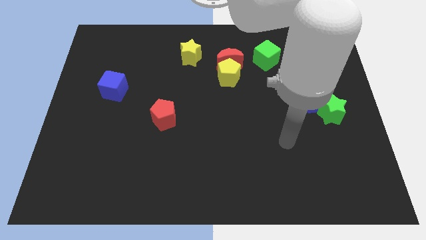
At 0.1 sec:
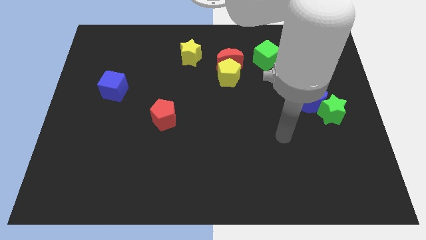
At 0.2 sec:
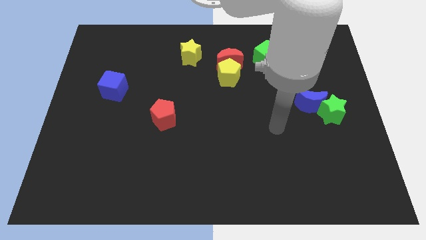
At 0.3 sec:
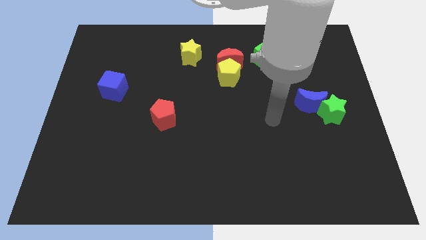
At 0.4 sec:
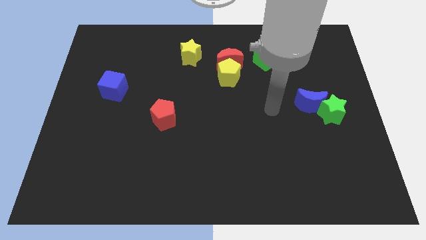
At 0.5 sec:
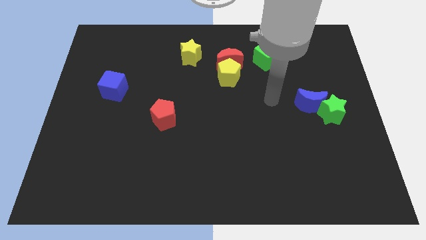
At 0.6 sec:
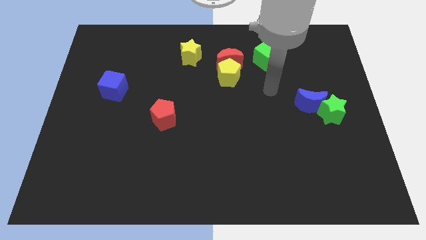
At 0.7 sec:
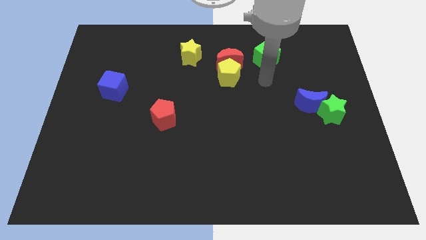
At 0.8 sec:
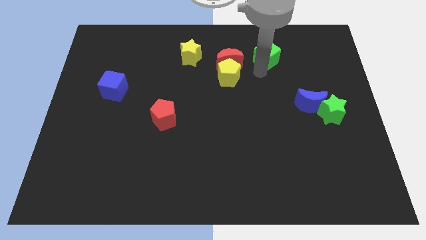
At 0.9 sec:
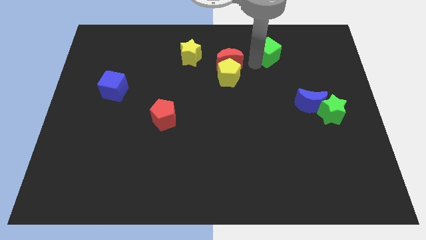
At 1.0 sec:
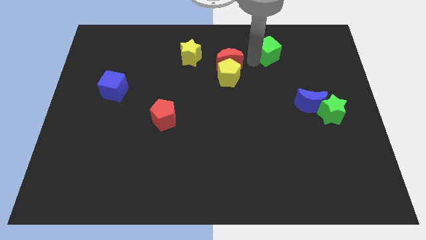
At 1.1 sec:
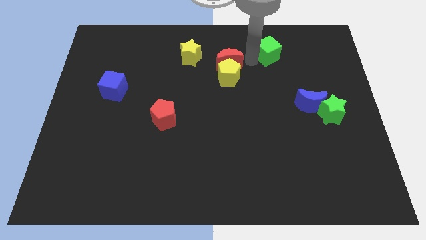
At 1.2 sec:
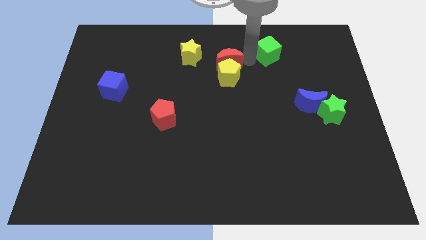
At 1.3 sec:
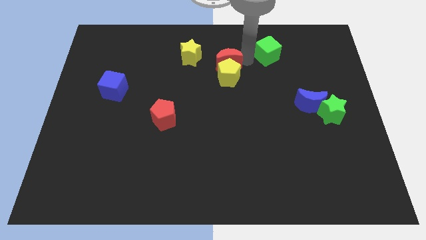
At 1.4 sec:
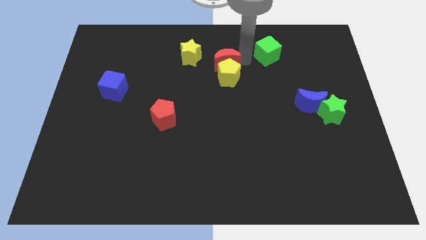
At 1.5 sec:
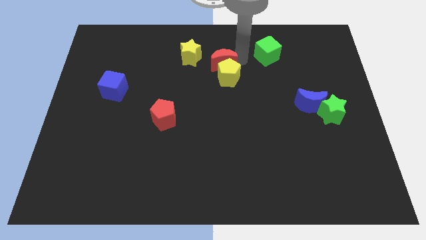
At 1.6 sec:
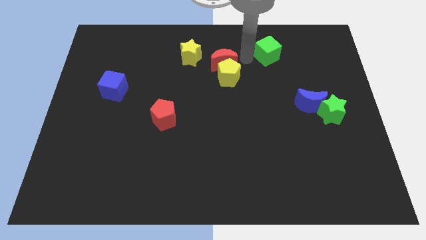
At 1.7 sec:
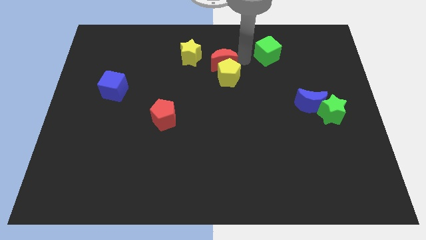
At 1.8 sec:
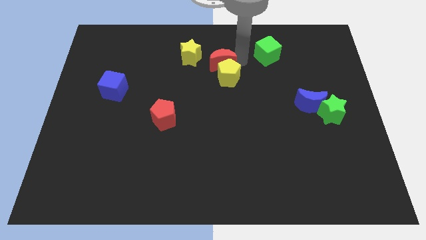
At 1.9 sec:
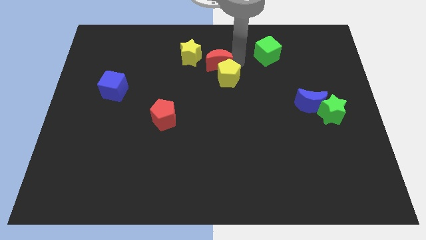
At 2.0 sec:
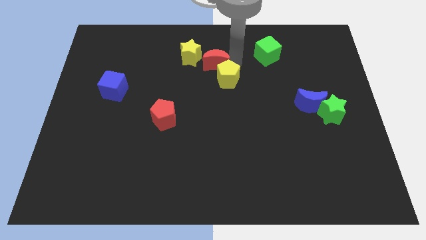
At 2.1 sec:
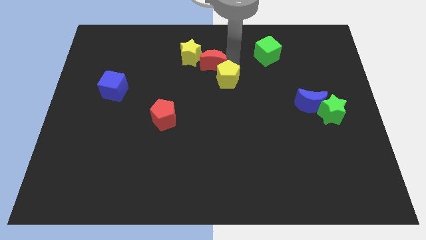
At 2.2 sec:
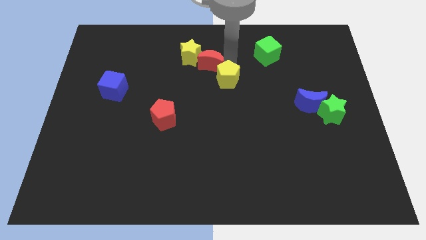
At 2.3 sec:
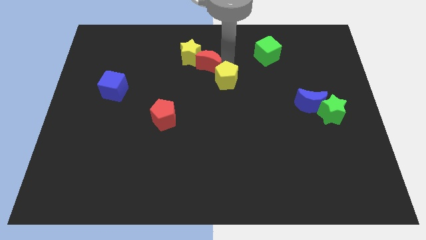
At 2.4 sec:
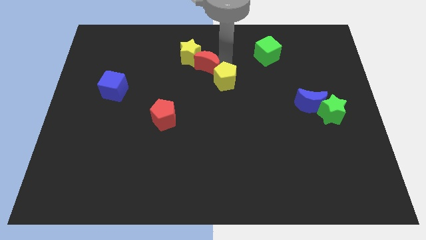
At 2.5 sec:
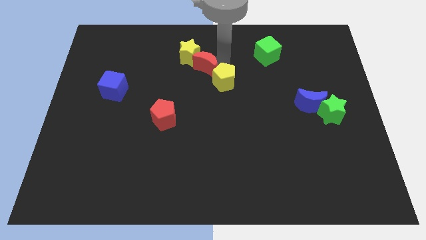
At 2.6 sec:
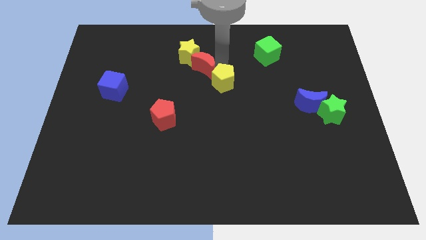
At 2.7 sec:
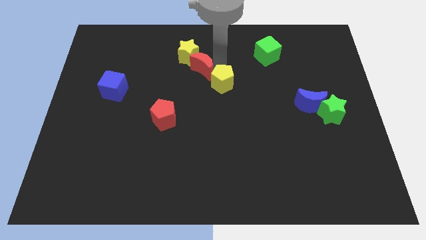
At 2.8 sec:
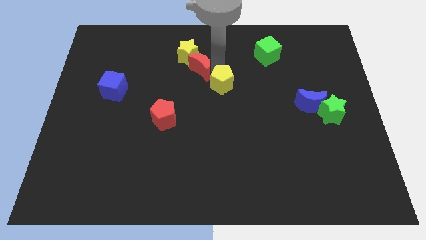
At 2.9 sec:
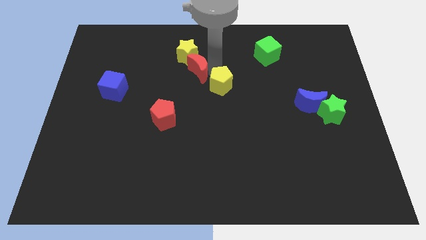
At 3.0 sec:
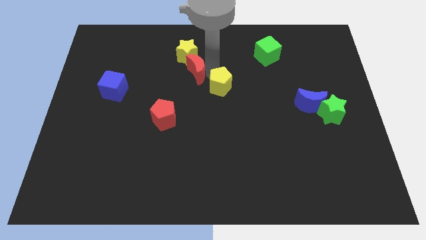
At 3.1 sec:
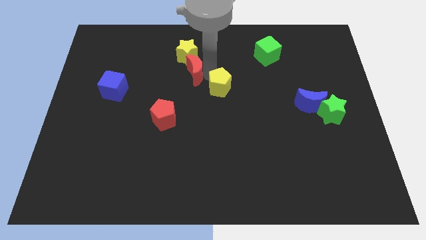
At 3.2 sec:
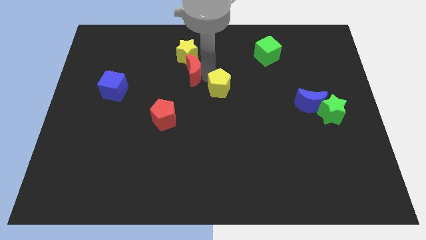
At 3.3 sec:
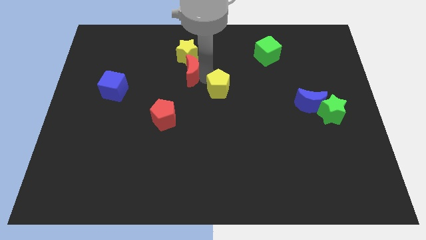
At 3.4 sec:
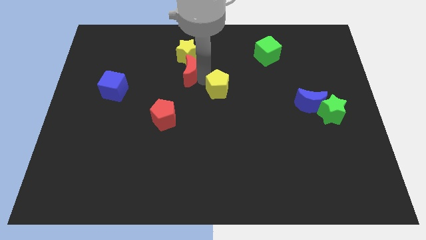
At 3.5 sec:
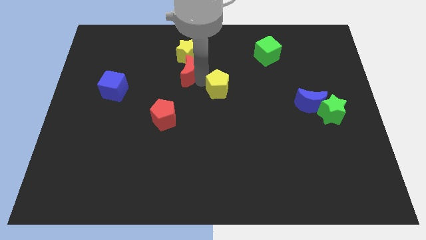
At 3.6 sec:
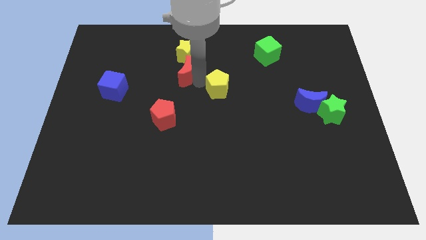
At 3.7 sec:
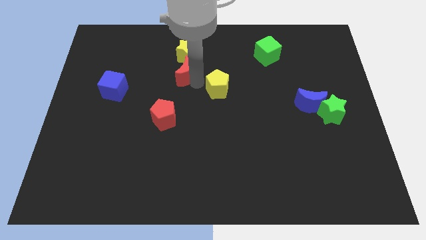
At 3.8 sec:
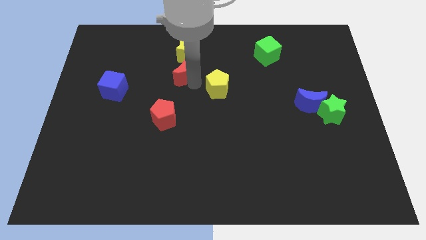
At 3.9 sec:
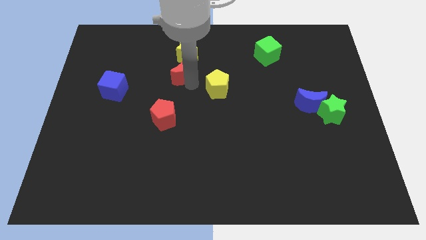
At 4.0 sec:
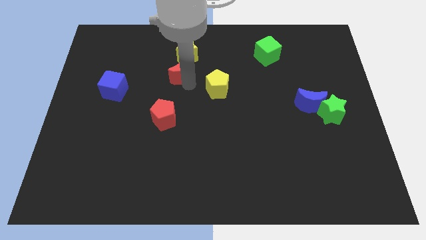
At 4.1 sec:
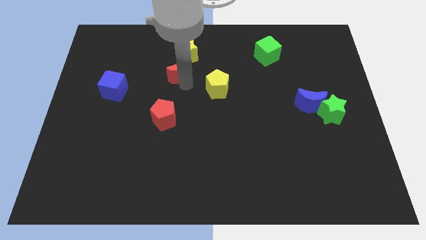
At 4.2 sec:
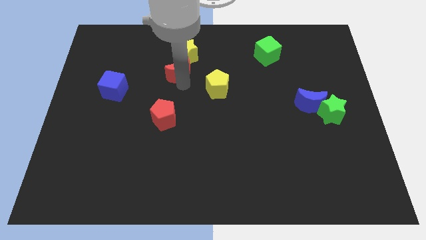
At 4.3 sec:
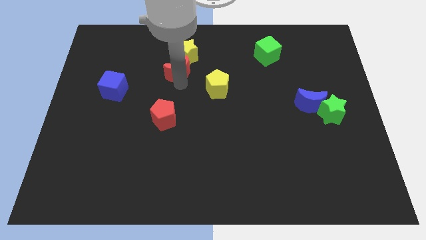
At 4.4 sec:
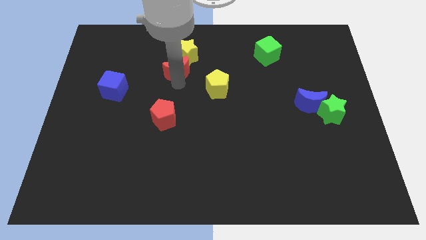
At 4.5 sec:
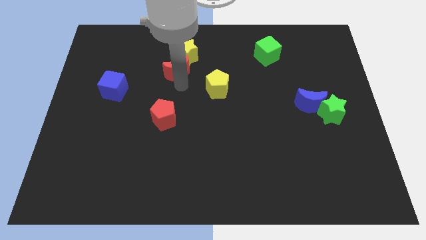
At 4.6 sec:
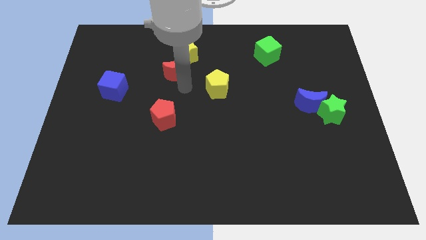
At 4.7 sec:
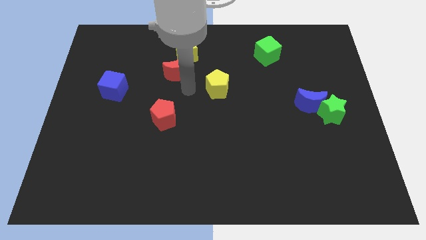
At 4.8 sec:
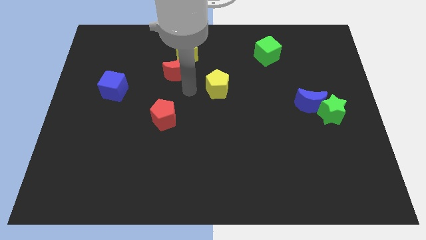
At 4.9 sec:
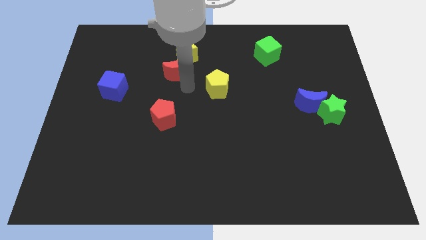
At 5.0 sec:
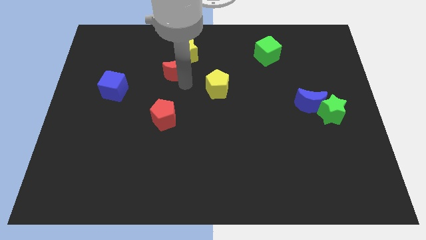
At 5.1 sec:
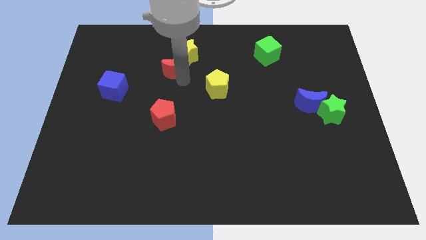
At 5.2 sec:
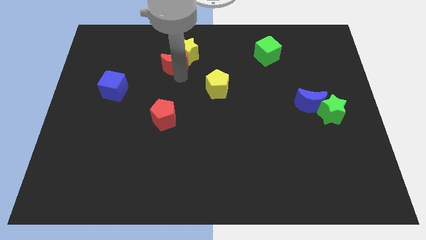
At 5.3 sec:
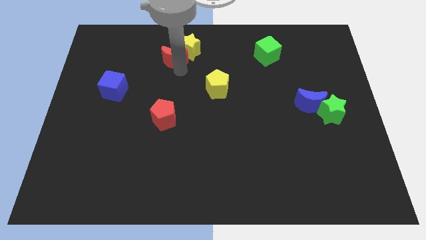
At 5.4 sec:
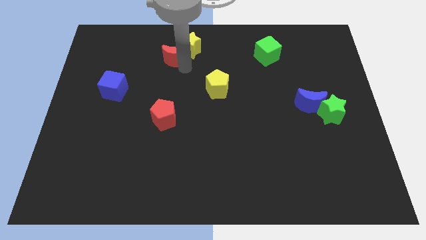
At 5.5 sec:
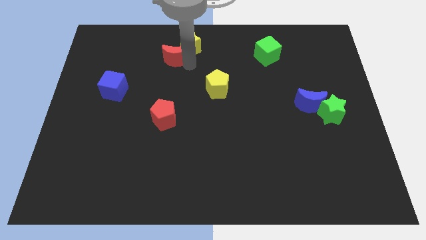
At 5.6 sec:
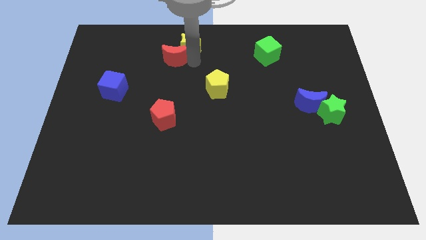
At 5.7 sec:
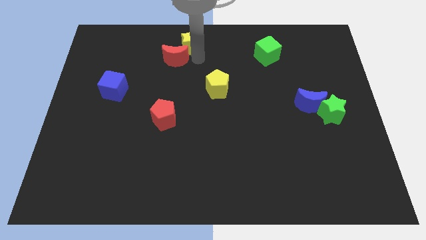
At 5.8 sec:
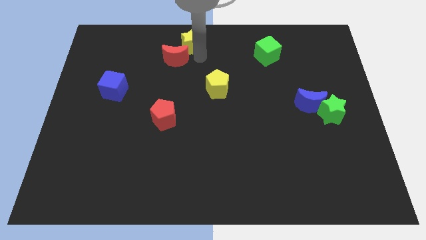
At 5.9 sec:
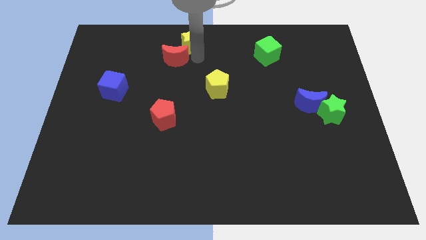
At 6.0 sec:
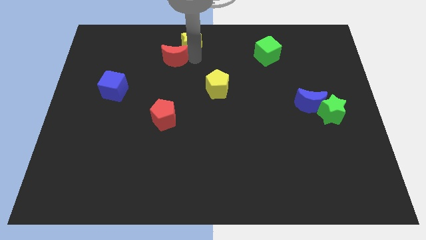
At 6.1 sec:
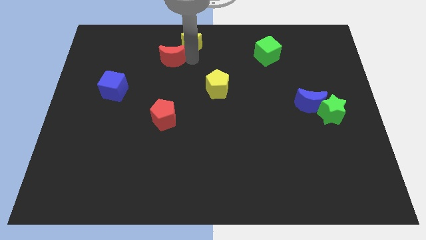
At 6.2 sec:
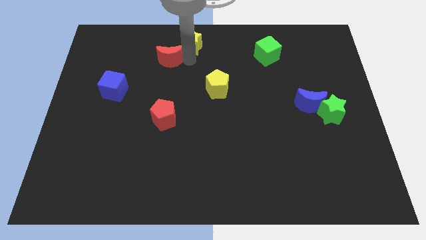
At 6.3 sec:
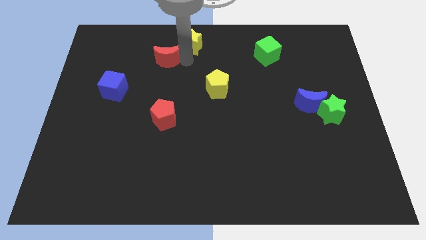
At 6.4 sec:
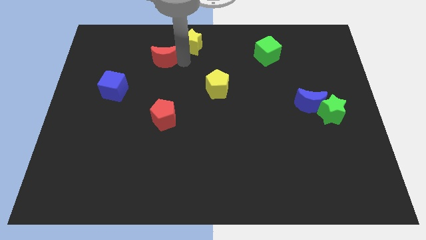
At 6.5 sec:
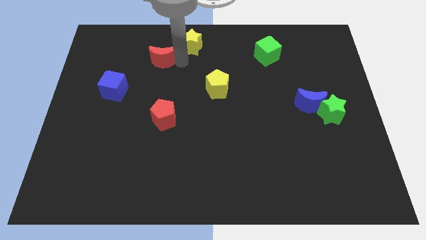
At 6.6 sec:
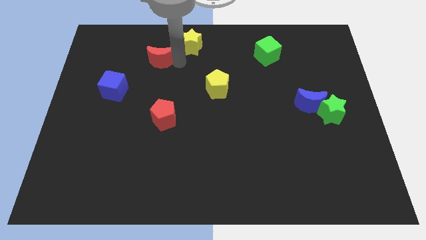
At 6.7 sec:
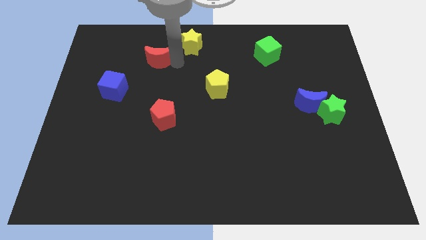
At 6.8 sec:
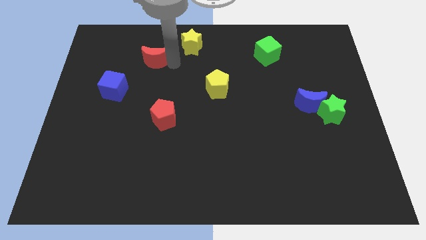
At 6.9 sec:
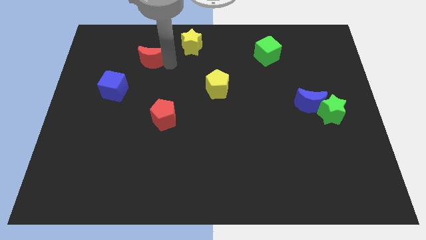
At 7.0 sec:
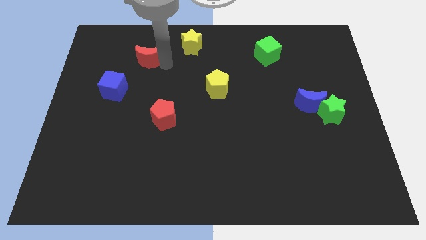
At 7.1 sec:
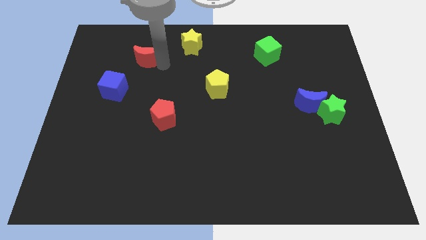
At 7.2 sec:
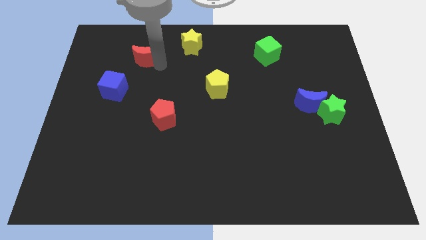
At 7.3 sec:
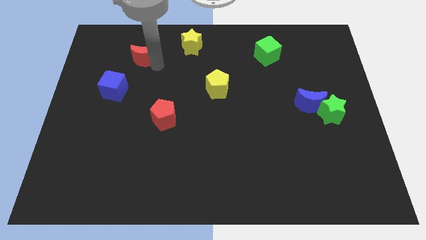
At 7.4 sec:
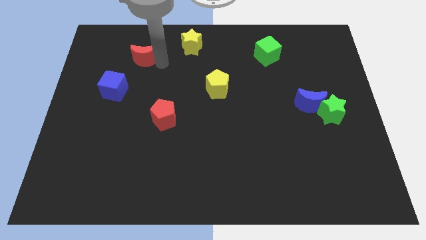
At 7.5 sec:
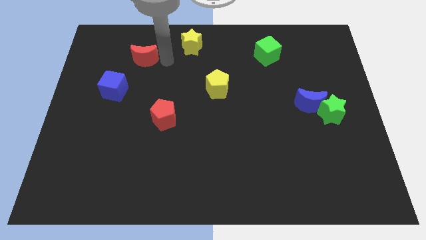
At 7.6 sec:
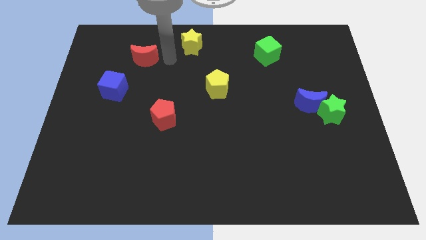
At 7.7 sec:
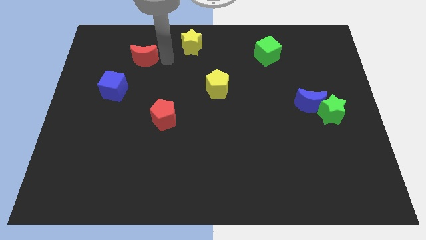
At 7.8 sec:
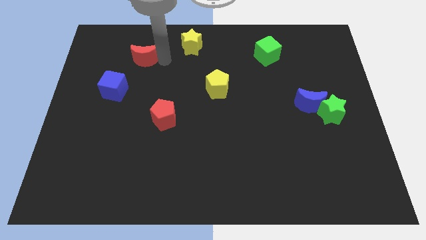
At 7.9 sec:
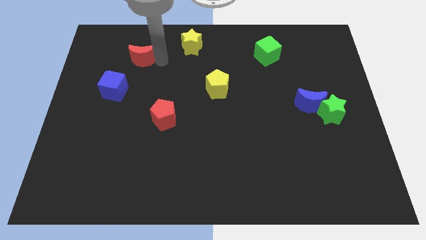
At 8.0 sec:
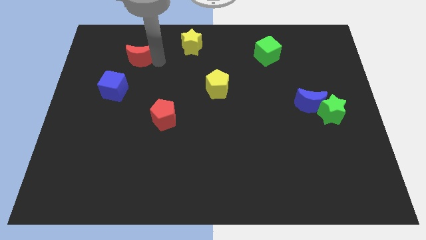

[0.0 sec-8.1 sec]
put the red moon to the top side of the blue cube
